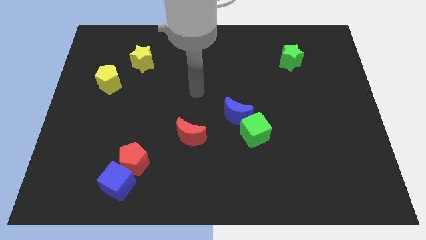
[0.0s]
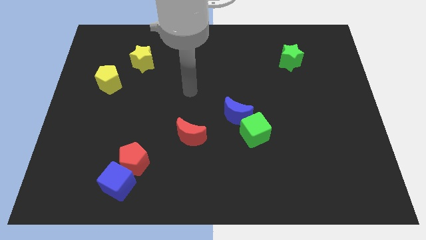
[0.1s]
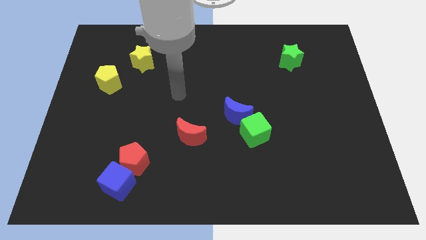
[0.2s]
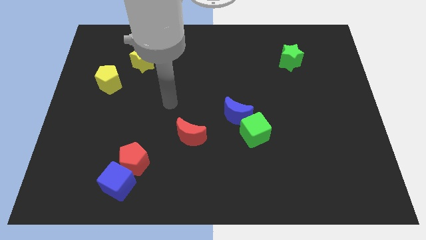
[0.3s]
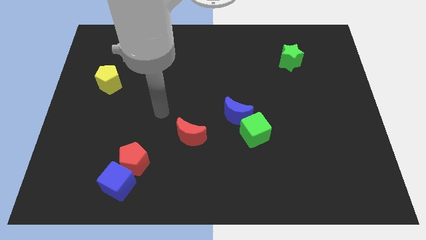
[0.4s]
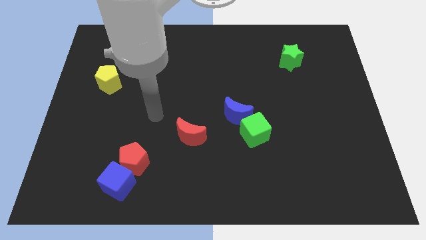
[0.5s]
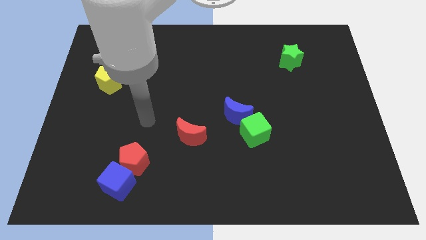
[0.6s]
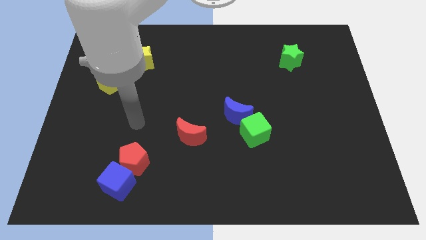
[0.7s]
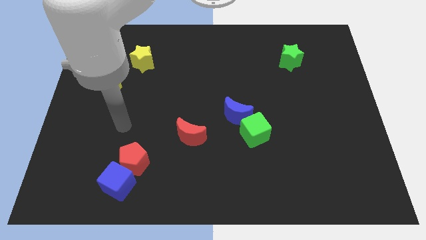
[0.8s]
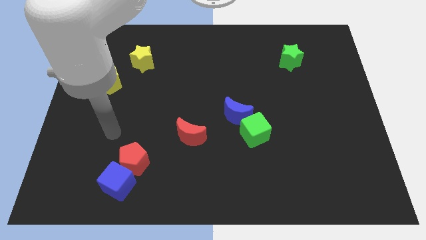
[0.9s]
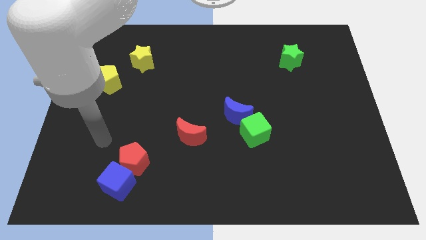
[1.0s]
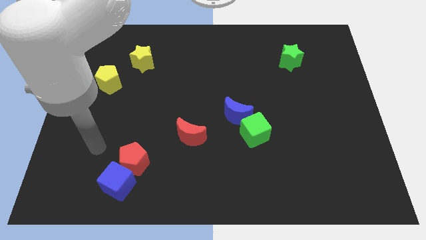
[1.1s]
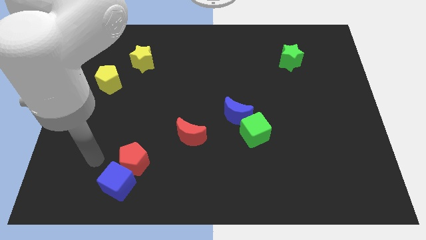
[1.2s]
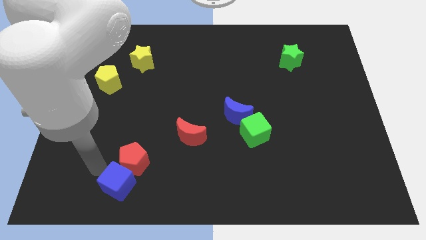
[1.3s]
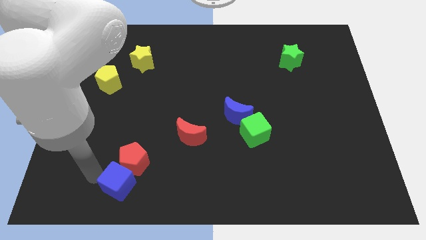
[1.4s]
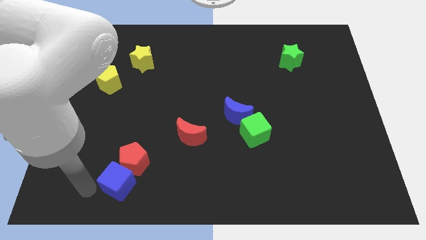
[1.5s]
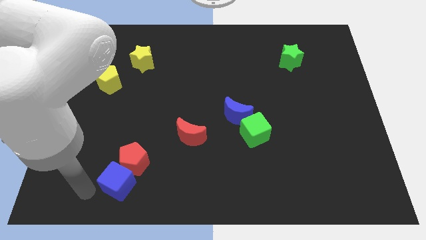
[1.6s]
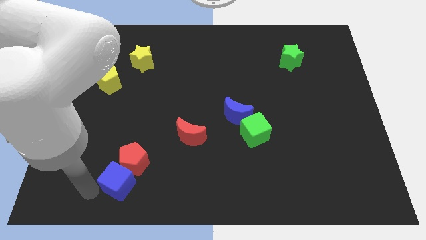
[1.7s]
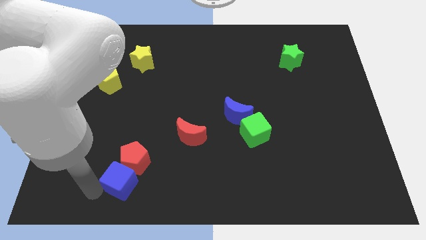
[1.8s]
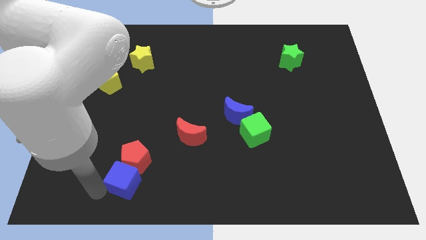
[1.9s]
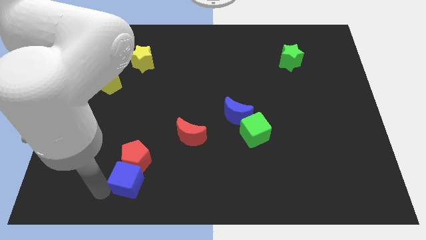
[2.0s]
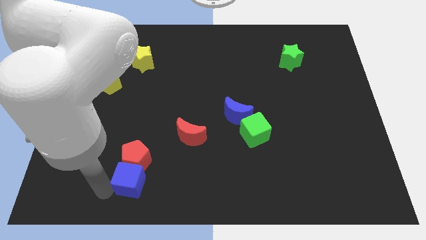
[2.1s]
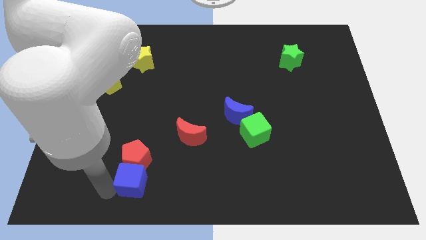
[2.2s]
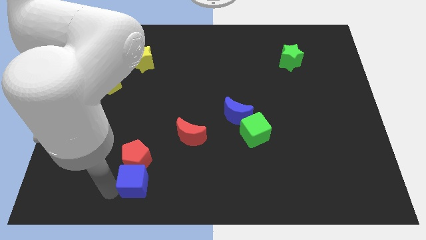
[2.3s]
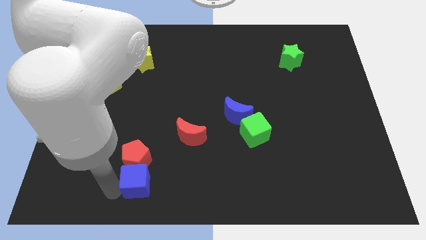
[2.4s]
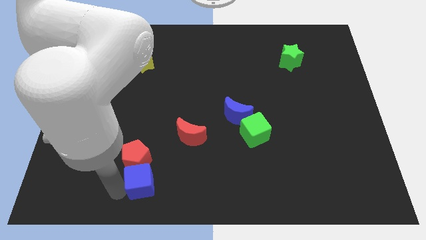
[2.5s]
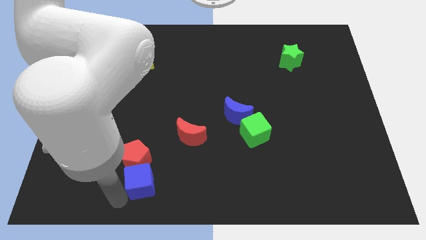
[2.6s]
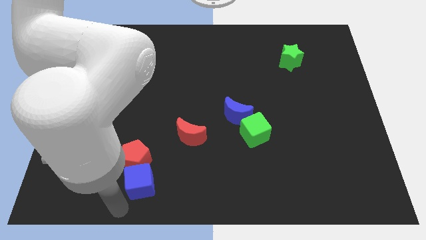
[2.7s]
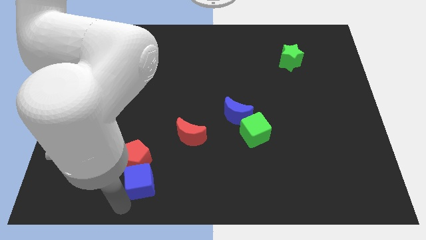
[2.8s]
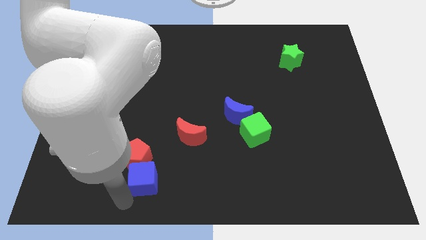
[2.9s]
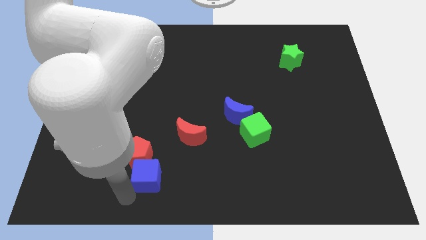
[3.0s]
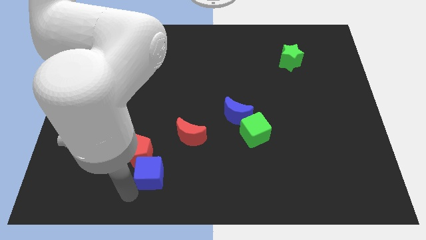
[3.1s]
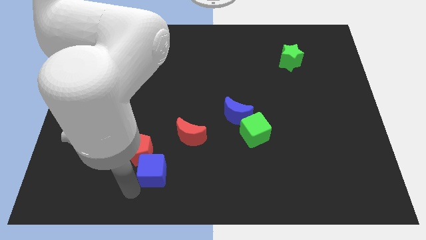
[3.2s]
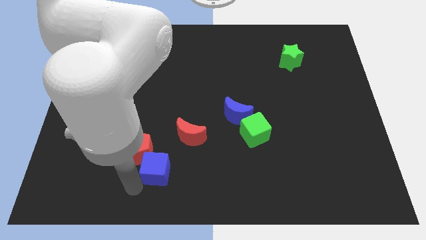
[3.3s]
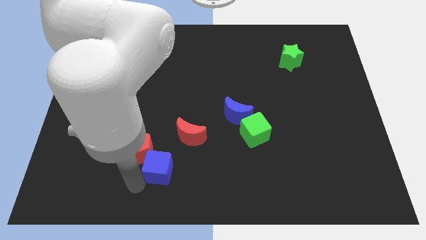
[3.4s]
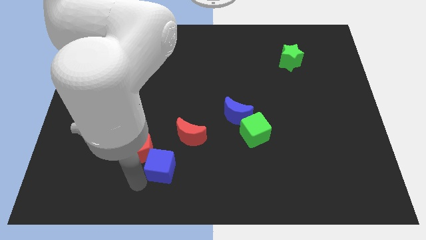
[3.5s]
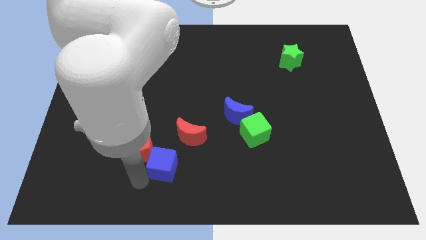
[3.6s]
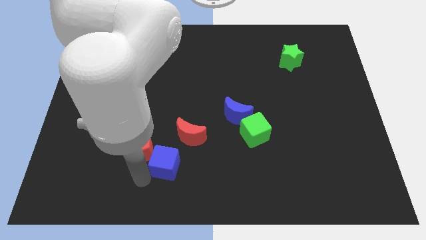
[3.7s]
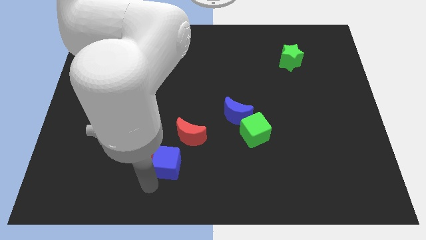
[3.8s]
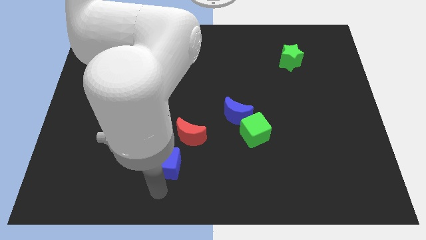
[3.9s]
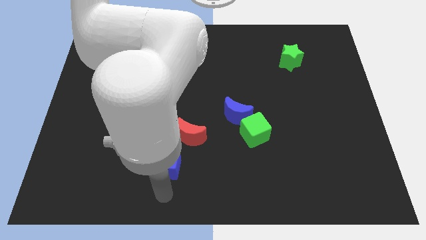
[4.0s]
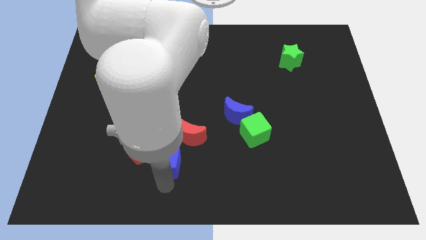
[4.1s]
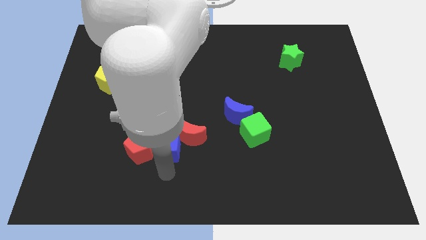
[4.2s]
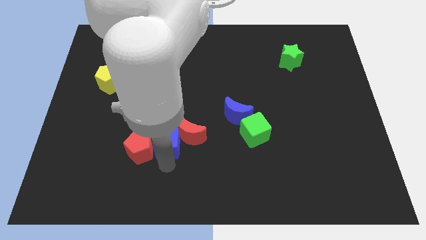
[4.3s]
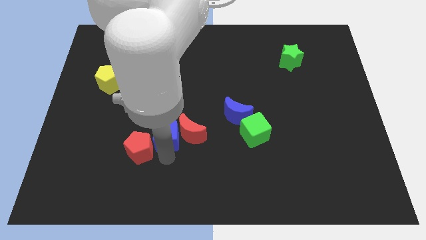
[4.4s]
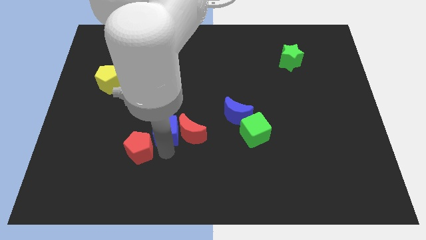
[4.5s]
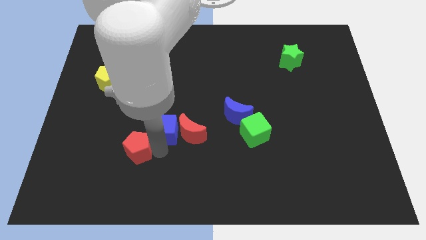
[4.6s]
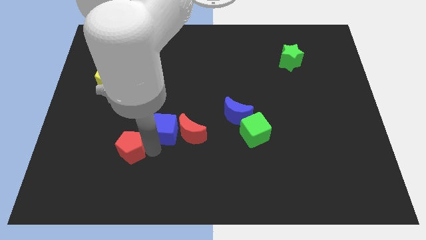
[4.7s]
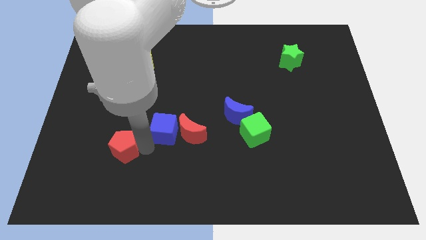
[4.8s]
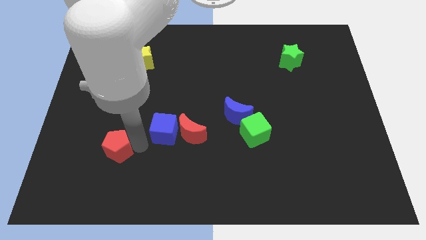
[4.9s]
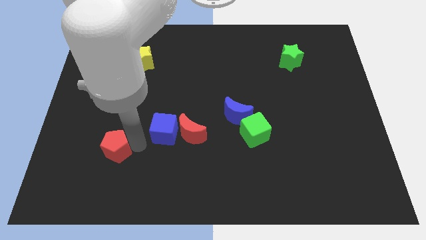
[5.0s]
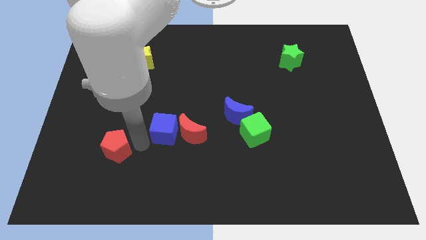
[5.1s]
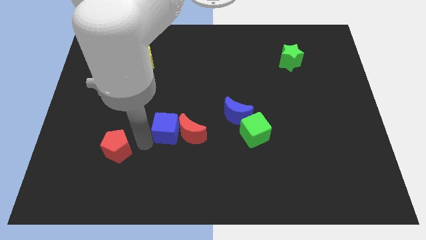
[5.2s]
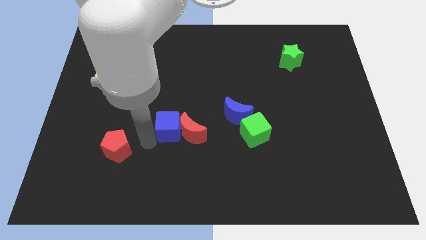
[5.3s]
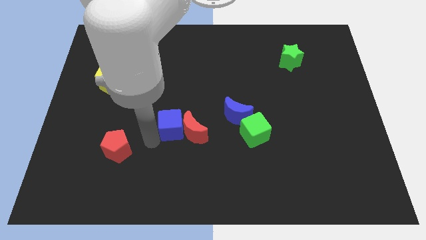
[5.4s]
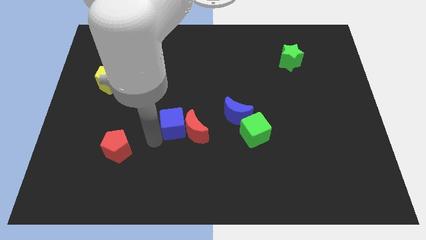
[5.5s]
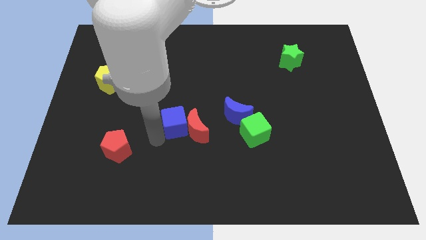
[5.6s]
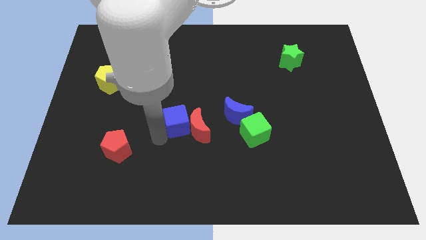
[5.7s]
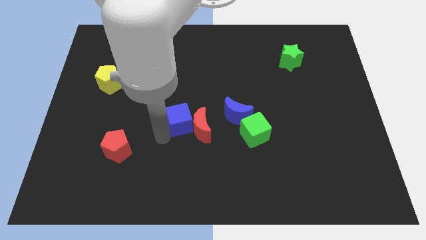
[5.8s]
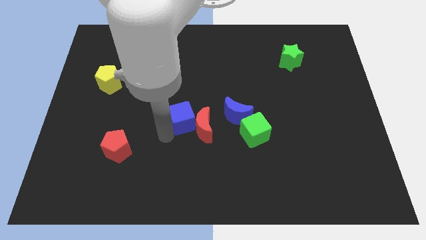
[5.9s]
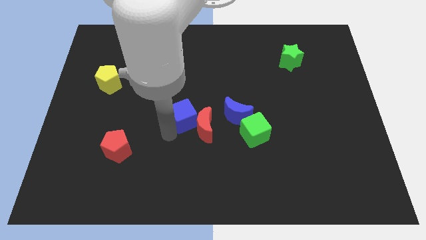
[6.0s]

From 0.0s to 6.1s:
slide the blue cube up and right diagonally

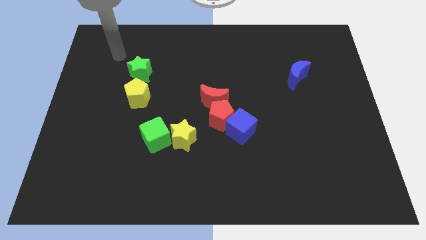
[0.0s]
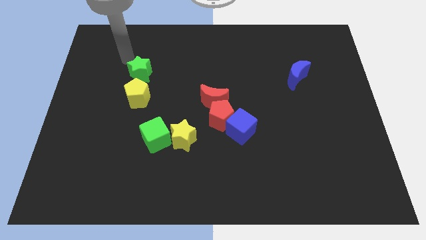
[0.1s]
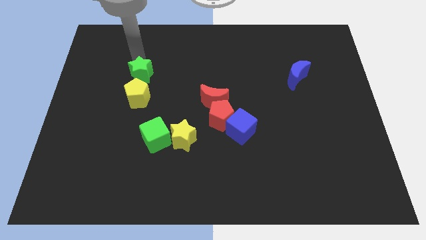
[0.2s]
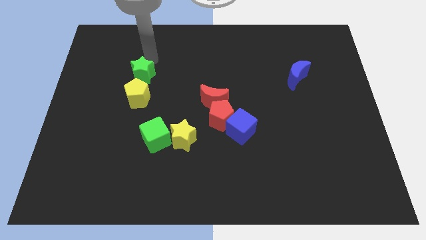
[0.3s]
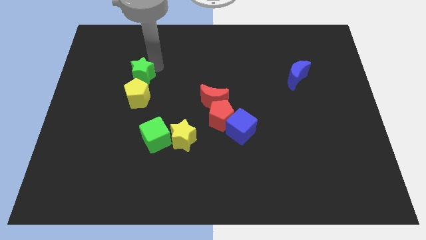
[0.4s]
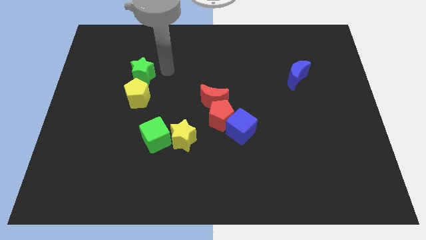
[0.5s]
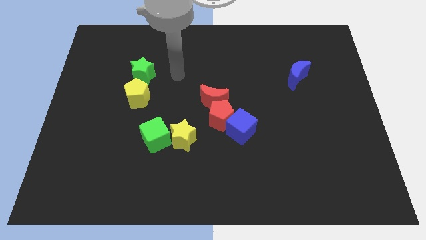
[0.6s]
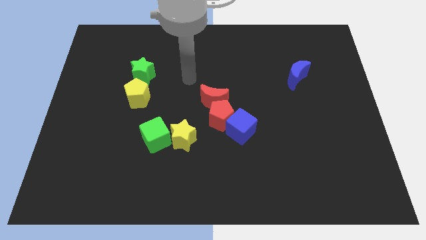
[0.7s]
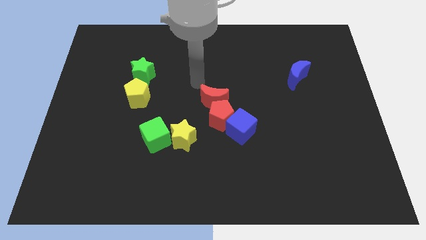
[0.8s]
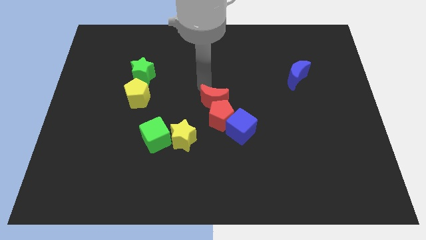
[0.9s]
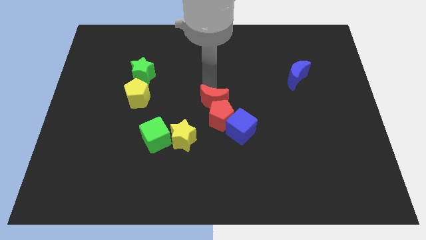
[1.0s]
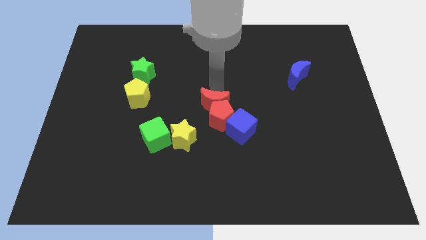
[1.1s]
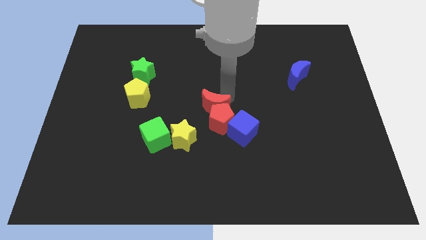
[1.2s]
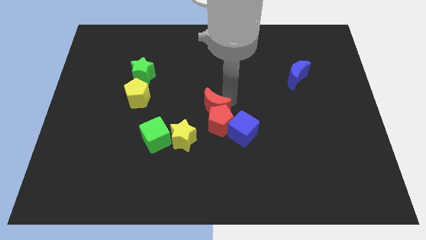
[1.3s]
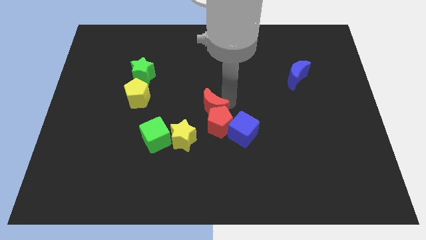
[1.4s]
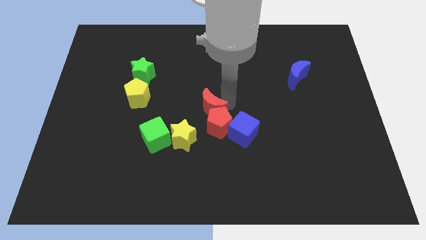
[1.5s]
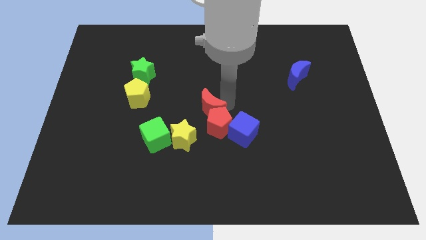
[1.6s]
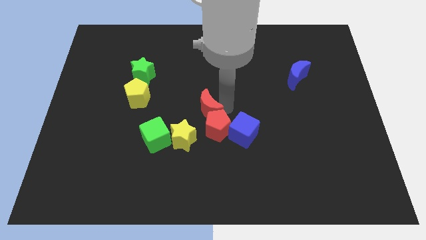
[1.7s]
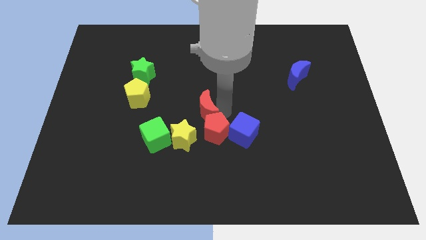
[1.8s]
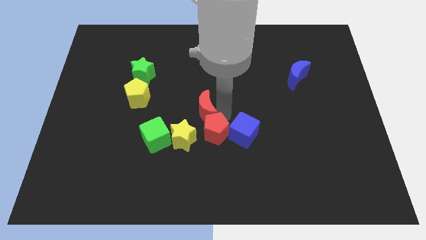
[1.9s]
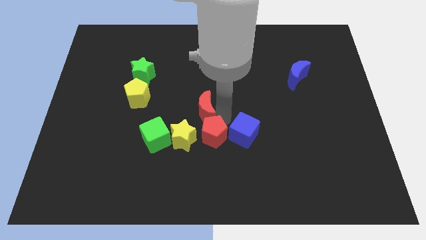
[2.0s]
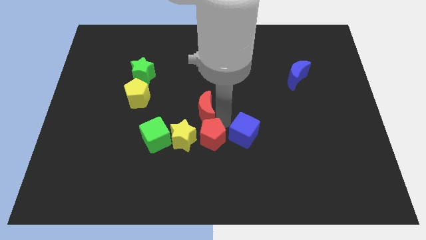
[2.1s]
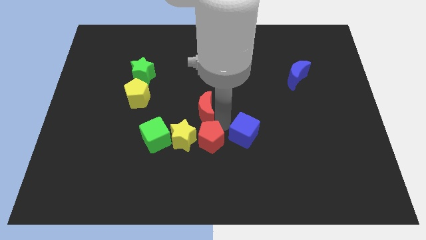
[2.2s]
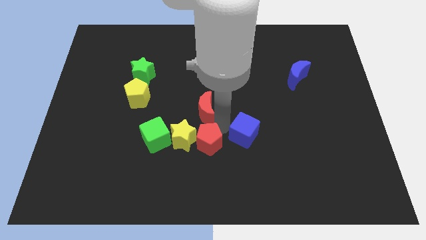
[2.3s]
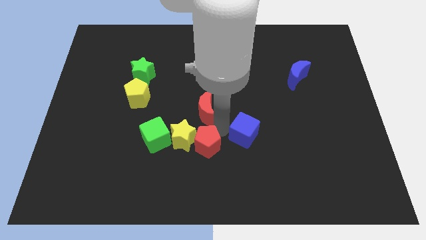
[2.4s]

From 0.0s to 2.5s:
move the red pentagon a little bit diagonally down and to the left
